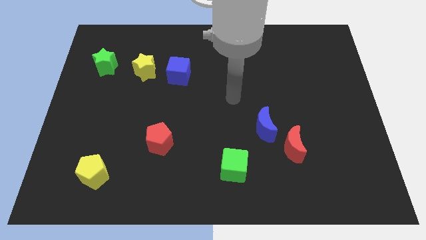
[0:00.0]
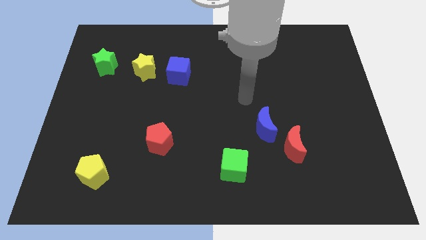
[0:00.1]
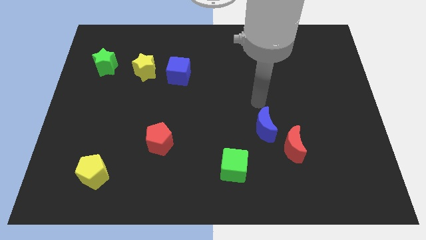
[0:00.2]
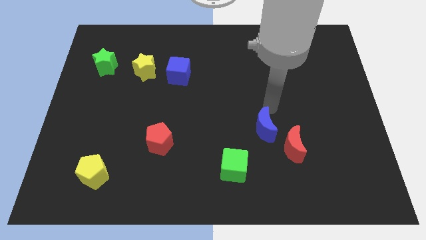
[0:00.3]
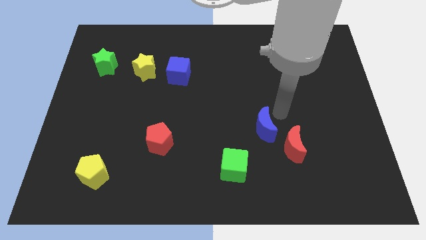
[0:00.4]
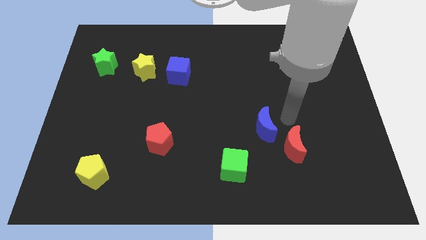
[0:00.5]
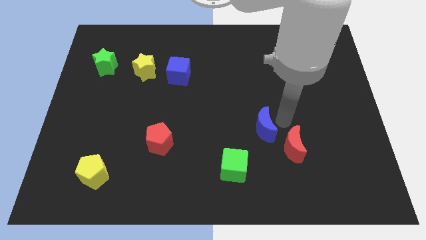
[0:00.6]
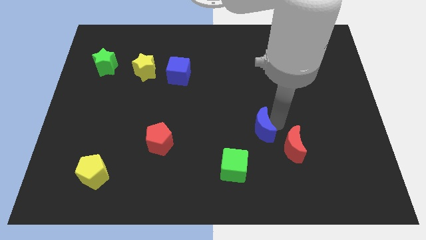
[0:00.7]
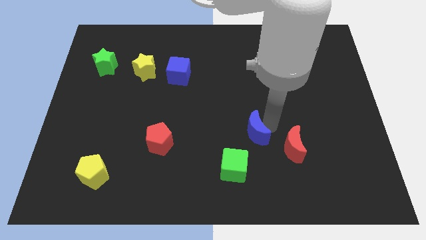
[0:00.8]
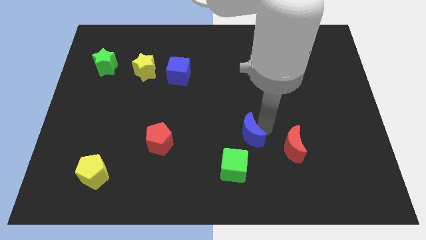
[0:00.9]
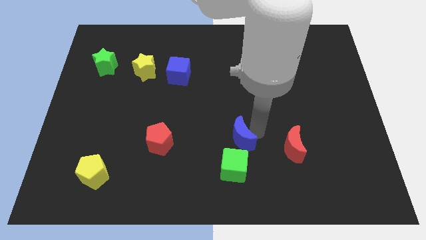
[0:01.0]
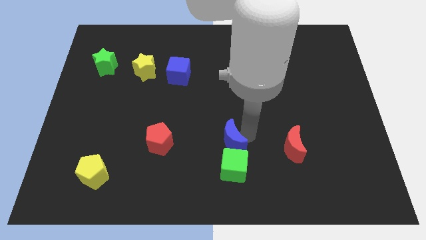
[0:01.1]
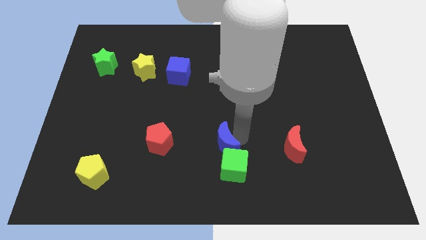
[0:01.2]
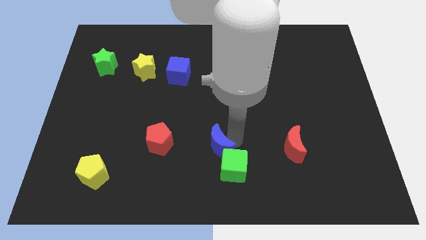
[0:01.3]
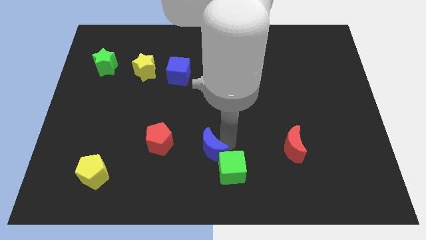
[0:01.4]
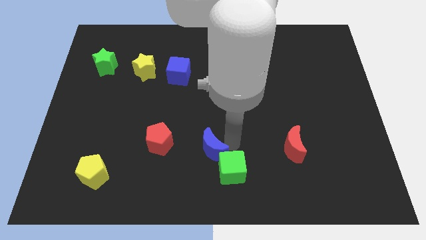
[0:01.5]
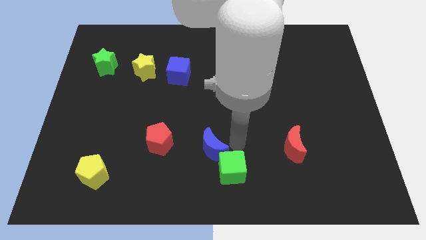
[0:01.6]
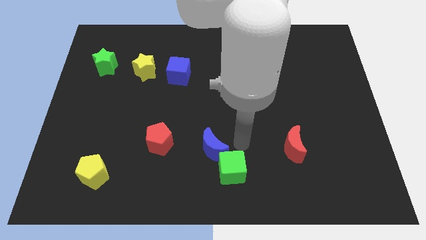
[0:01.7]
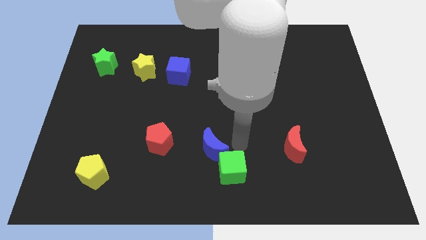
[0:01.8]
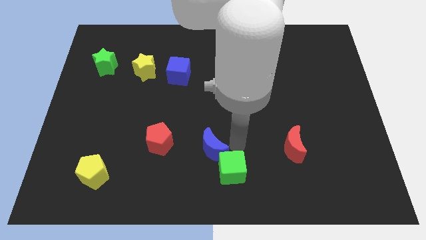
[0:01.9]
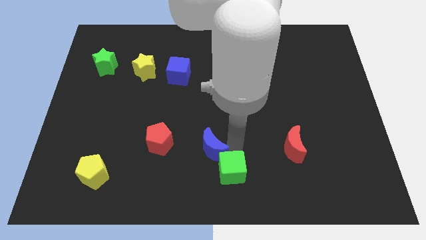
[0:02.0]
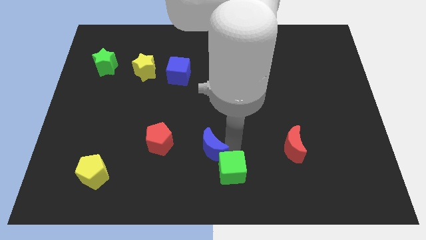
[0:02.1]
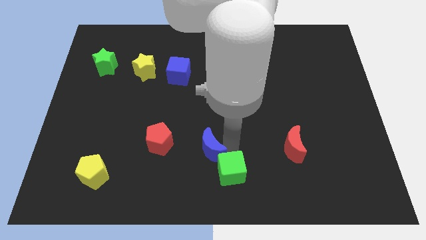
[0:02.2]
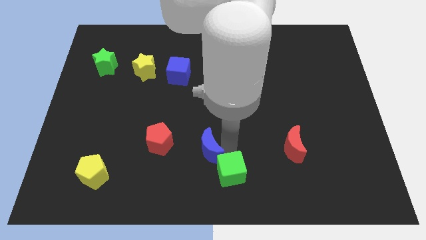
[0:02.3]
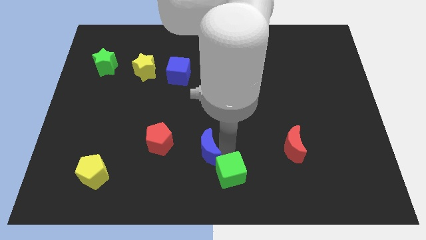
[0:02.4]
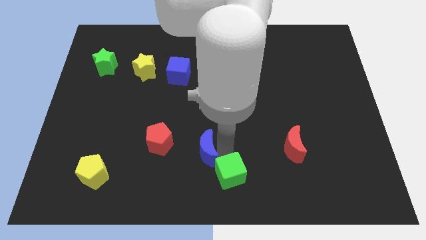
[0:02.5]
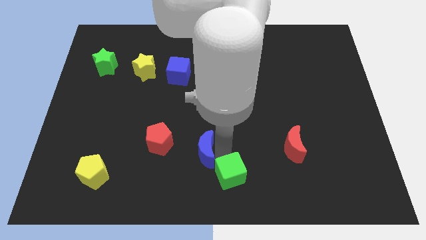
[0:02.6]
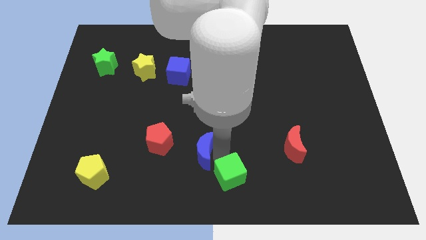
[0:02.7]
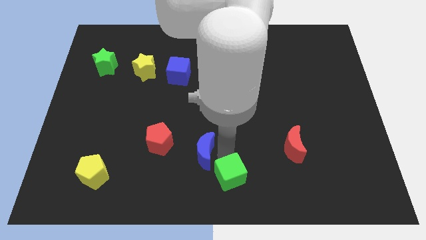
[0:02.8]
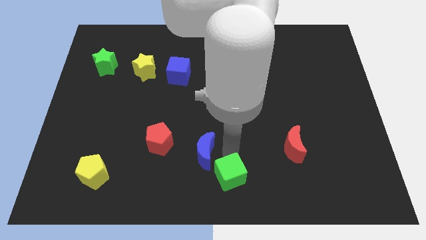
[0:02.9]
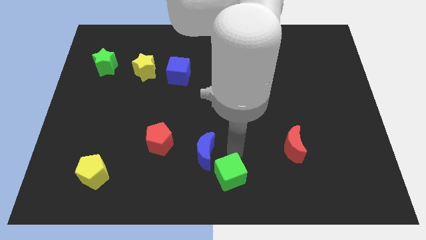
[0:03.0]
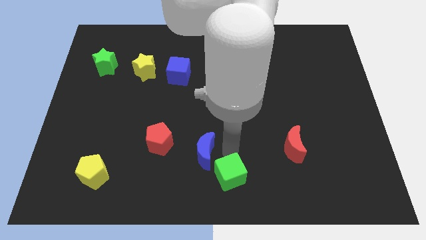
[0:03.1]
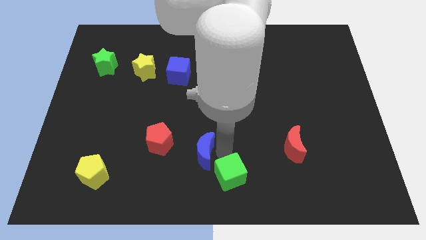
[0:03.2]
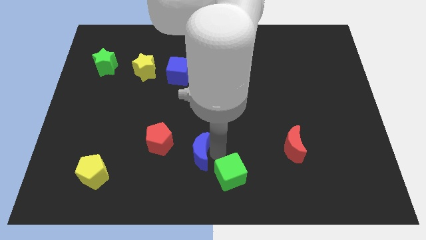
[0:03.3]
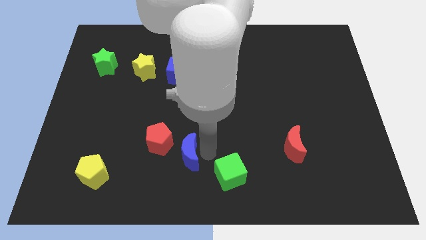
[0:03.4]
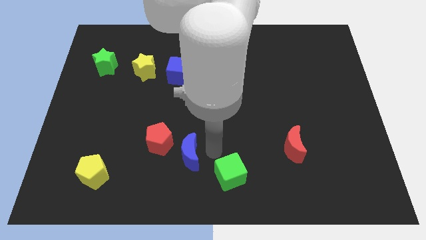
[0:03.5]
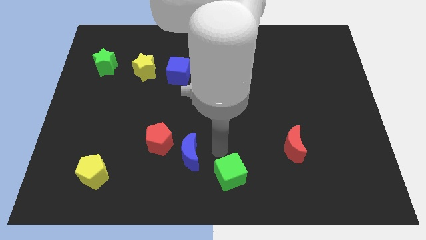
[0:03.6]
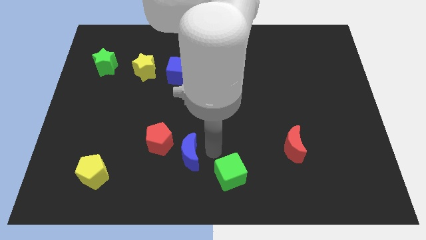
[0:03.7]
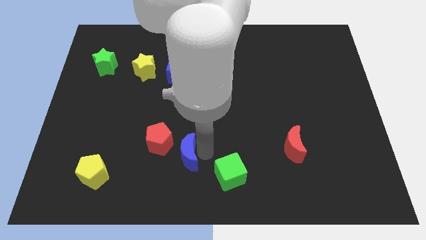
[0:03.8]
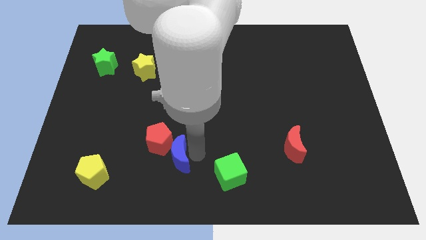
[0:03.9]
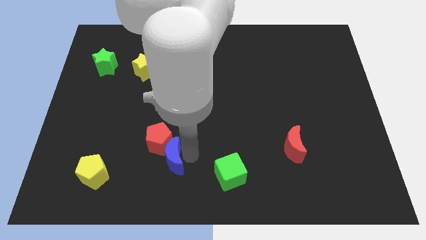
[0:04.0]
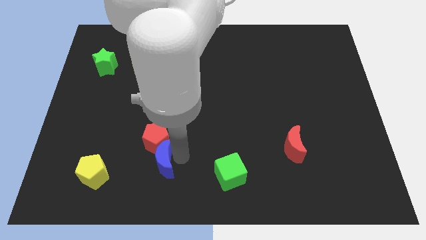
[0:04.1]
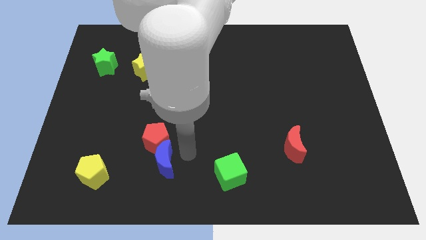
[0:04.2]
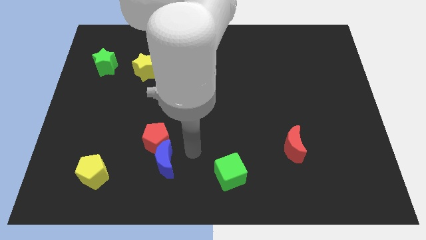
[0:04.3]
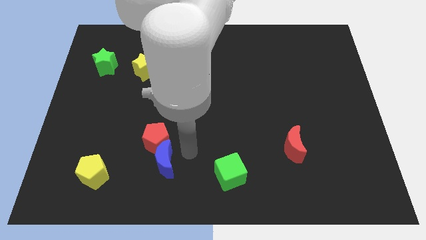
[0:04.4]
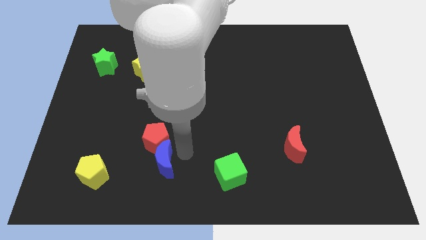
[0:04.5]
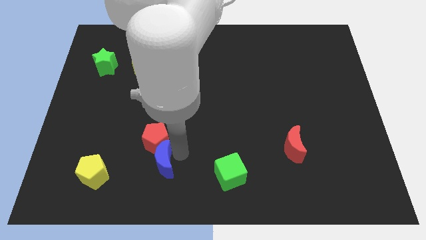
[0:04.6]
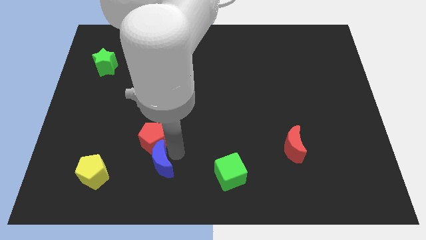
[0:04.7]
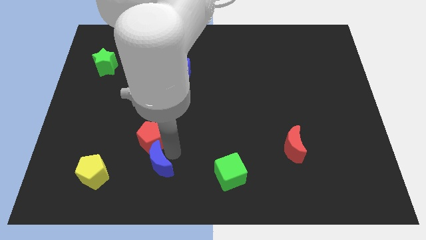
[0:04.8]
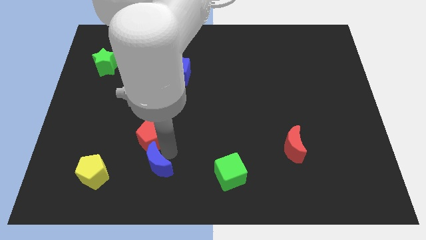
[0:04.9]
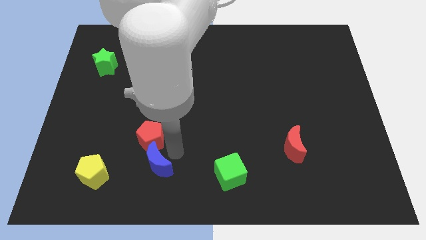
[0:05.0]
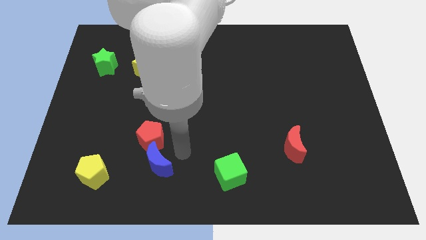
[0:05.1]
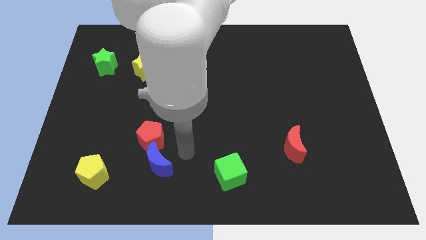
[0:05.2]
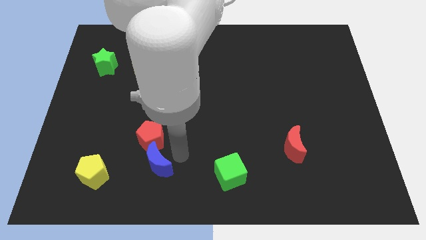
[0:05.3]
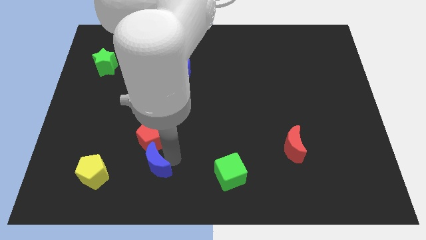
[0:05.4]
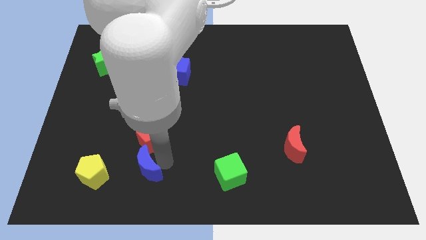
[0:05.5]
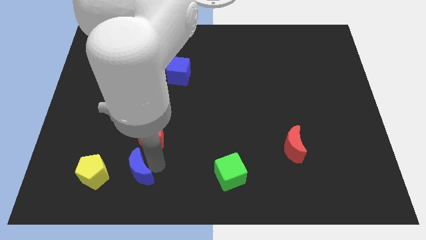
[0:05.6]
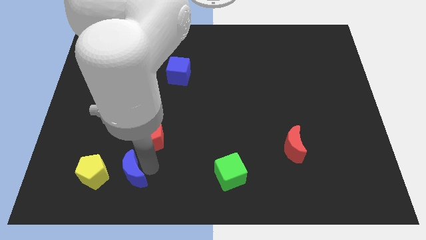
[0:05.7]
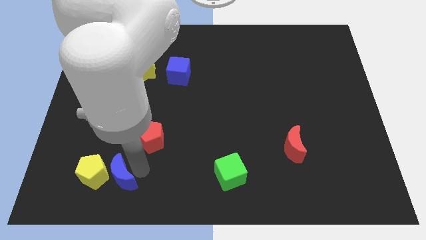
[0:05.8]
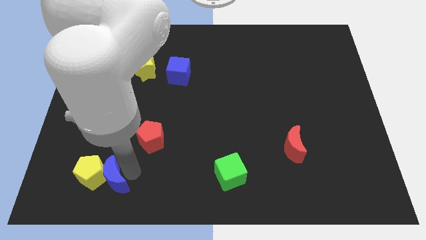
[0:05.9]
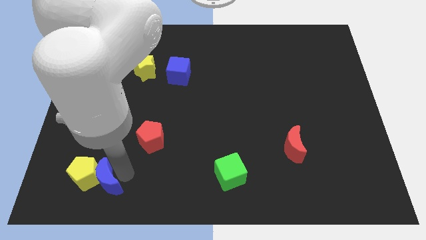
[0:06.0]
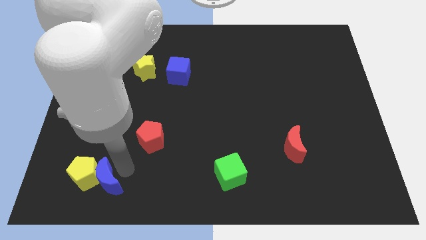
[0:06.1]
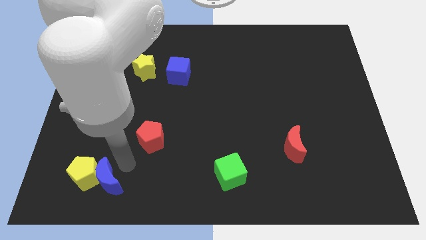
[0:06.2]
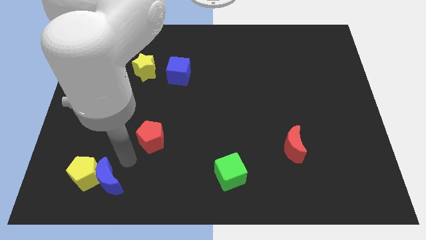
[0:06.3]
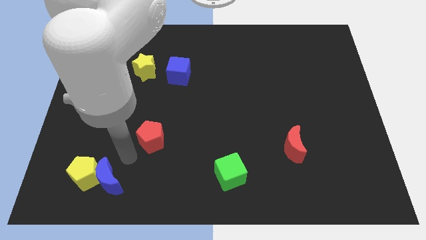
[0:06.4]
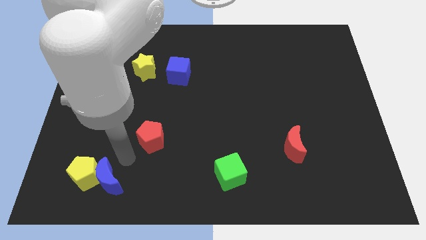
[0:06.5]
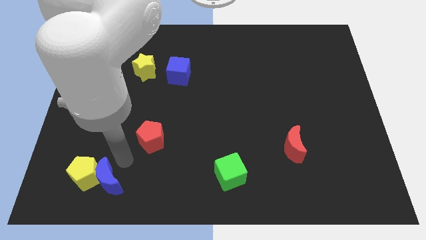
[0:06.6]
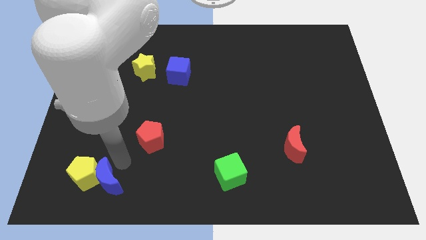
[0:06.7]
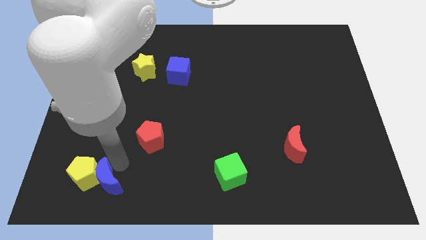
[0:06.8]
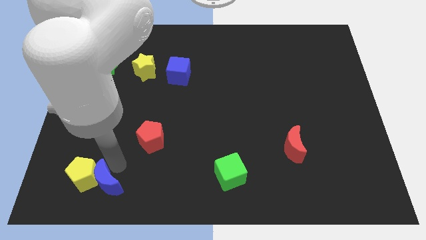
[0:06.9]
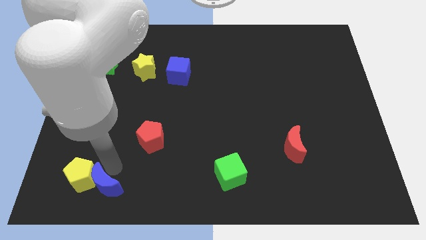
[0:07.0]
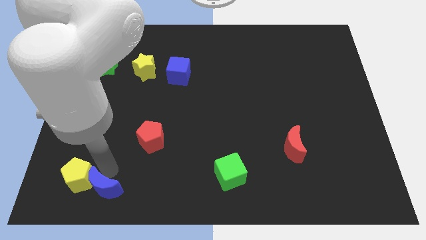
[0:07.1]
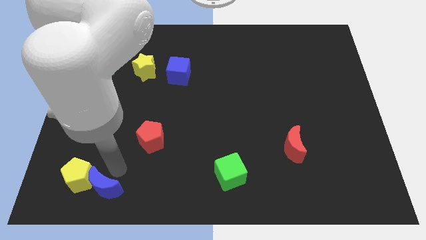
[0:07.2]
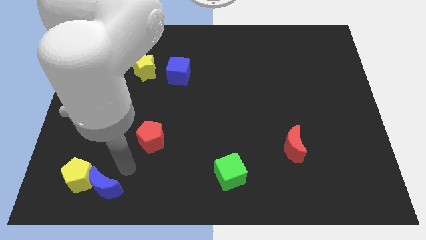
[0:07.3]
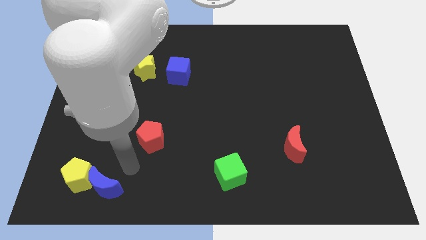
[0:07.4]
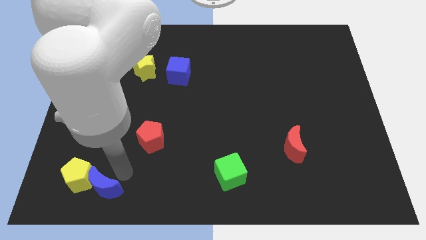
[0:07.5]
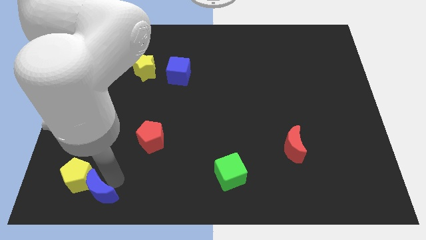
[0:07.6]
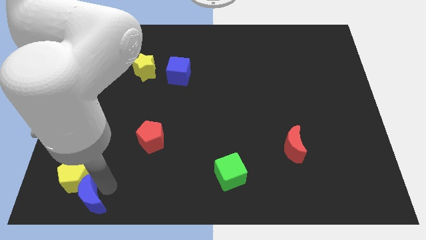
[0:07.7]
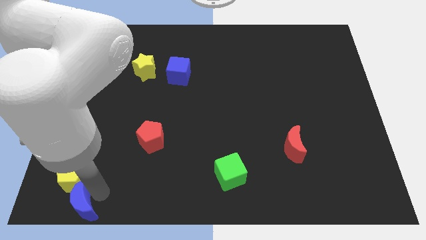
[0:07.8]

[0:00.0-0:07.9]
put the blue moon to the bottom left
